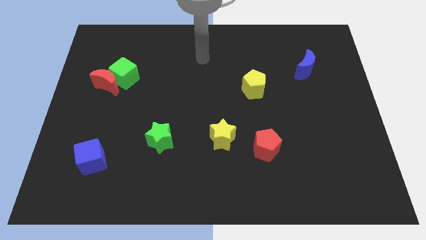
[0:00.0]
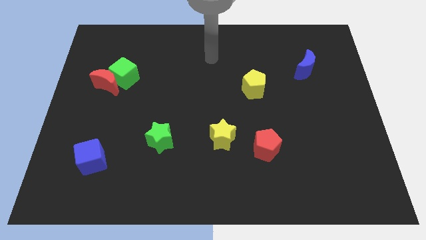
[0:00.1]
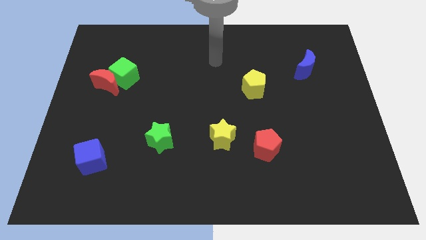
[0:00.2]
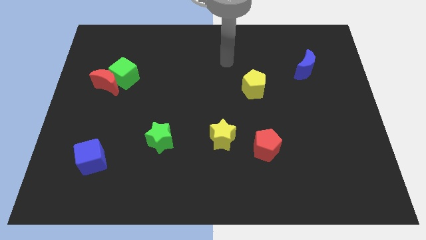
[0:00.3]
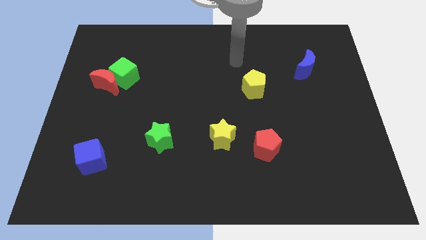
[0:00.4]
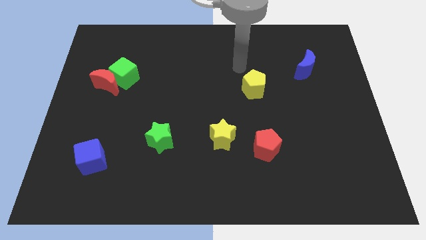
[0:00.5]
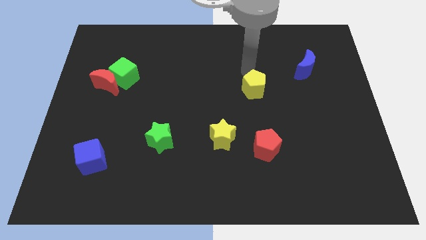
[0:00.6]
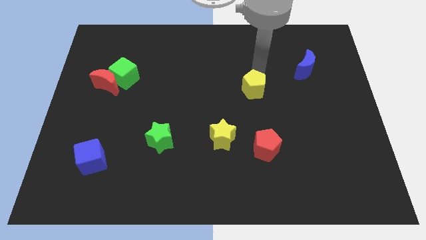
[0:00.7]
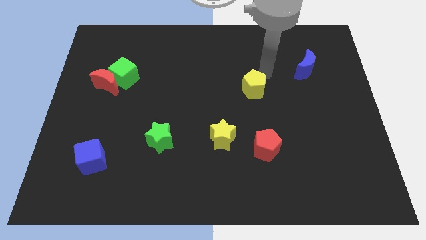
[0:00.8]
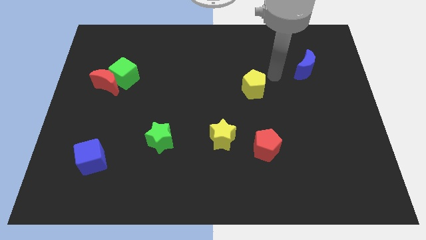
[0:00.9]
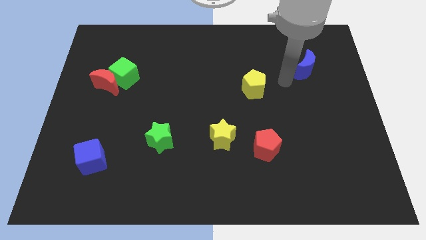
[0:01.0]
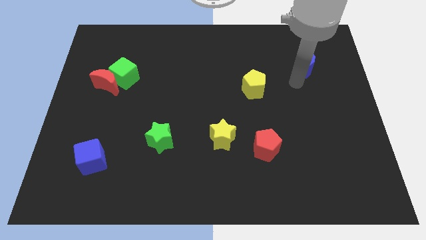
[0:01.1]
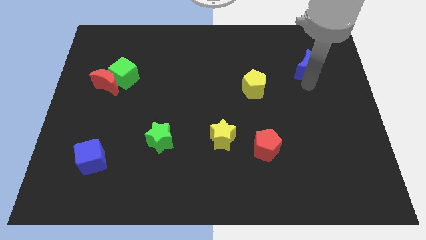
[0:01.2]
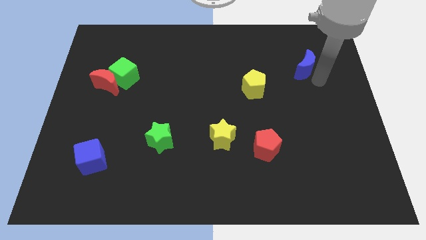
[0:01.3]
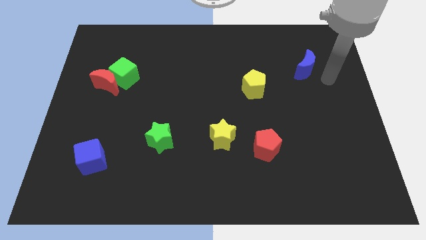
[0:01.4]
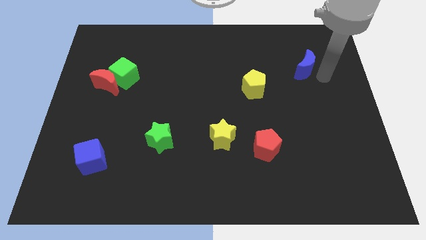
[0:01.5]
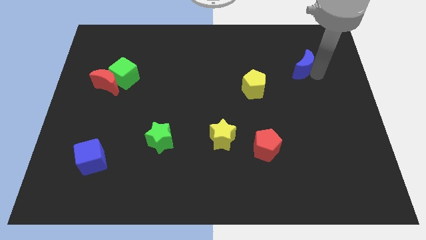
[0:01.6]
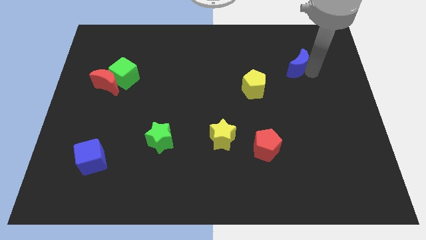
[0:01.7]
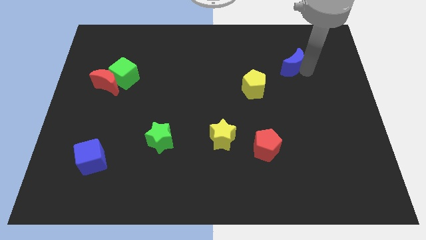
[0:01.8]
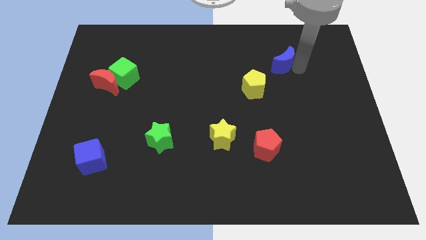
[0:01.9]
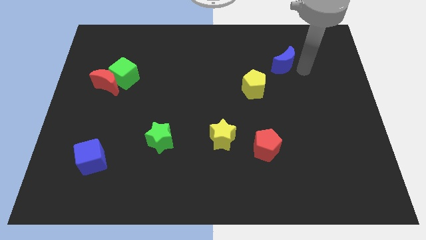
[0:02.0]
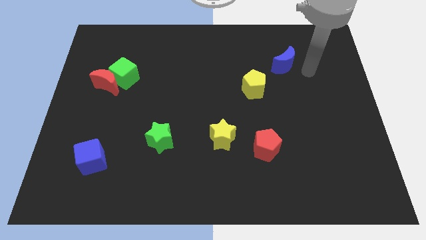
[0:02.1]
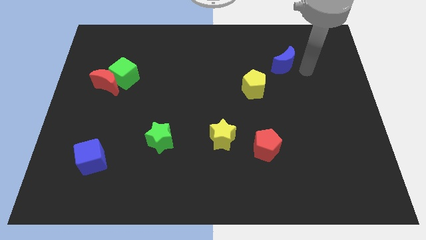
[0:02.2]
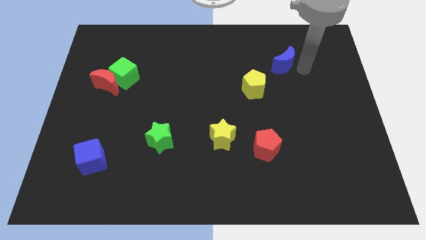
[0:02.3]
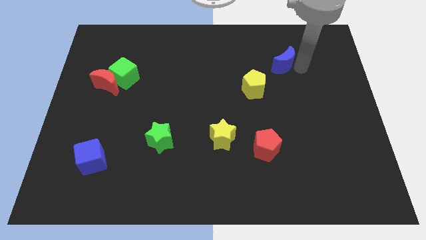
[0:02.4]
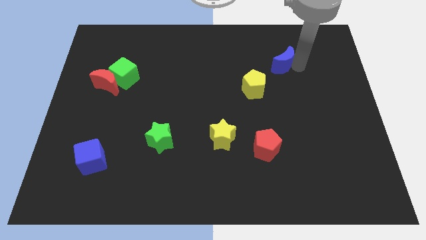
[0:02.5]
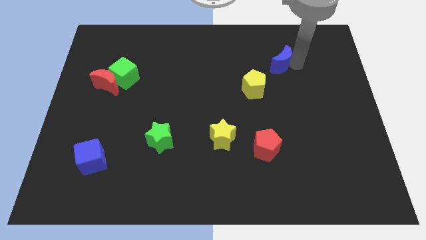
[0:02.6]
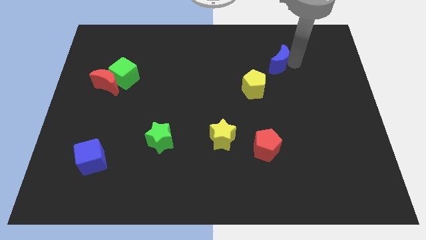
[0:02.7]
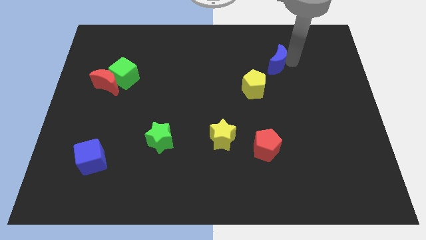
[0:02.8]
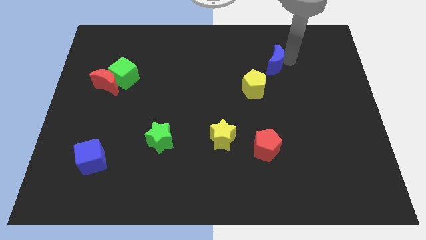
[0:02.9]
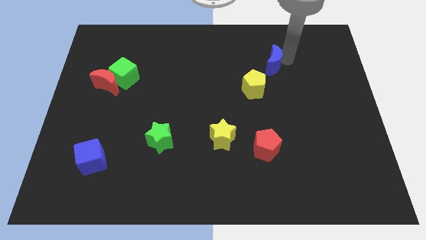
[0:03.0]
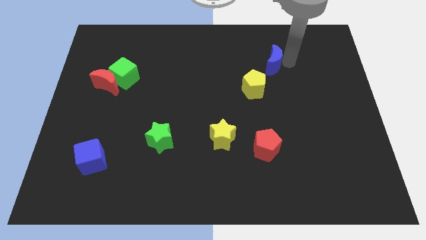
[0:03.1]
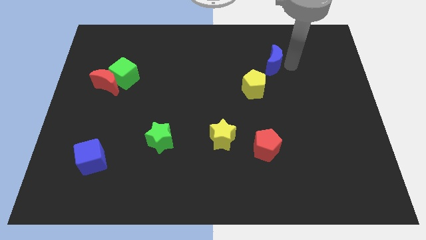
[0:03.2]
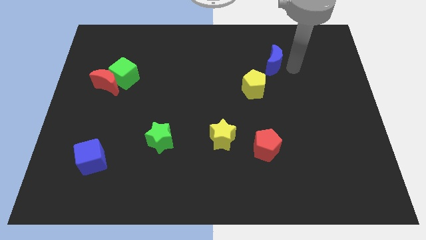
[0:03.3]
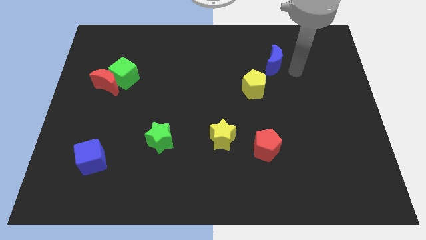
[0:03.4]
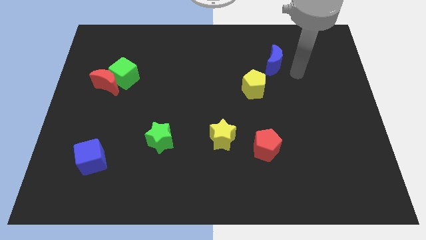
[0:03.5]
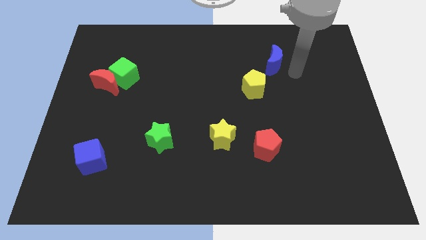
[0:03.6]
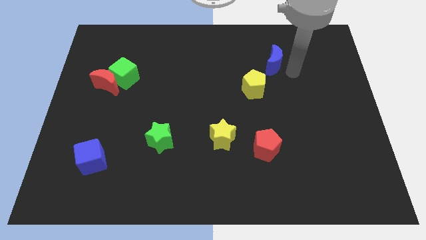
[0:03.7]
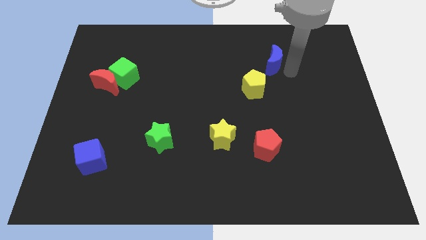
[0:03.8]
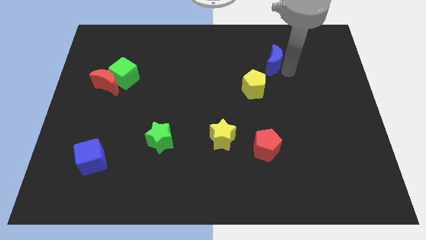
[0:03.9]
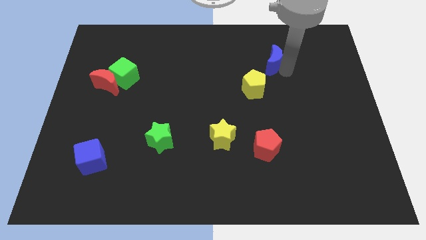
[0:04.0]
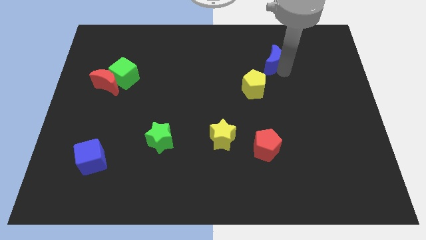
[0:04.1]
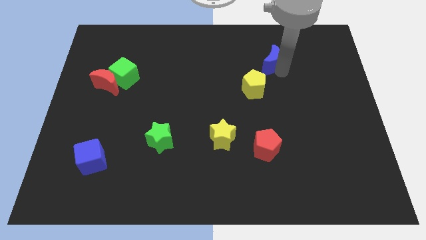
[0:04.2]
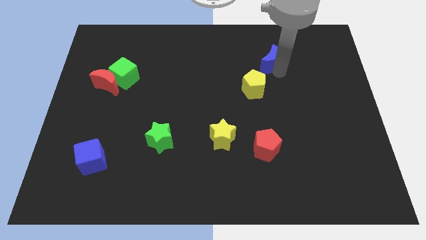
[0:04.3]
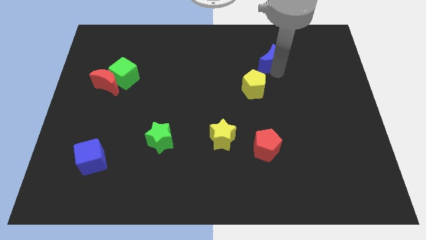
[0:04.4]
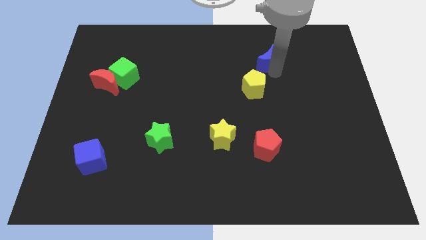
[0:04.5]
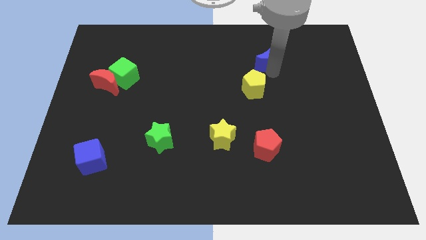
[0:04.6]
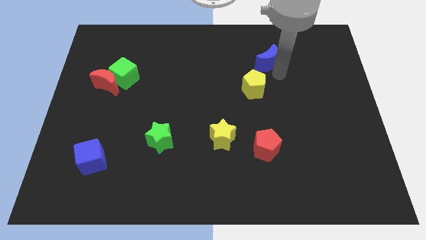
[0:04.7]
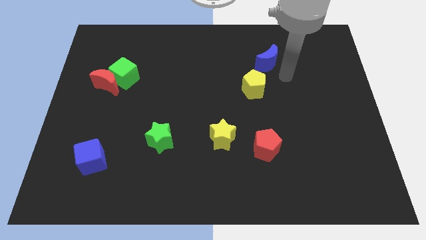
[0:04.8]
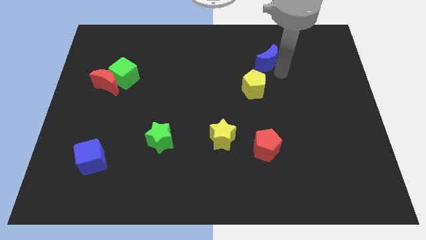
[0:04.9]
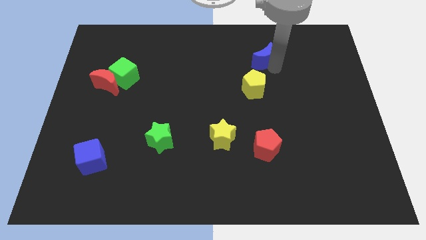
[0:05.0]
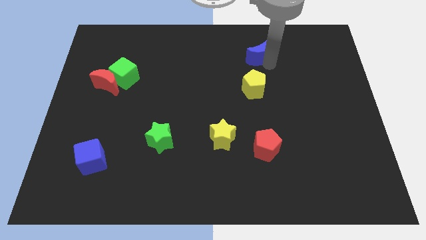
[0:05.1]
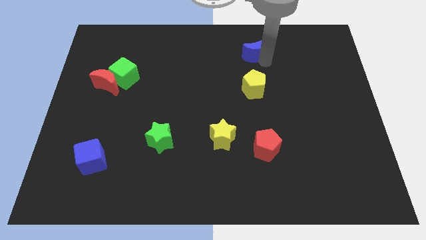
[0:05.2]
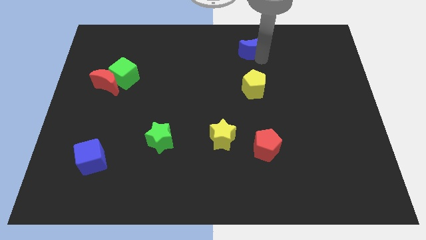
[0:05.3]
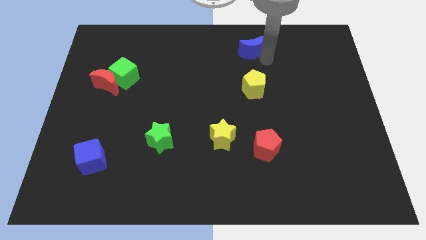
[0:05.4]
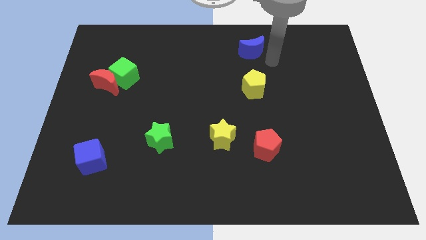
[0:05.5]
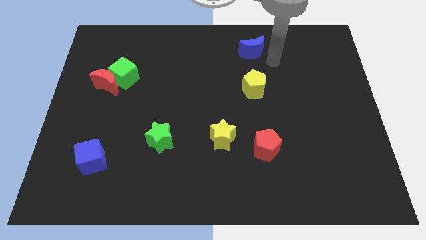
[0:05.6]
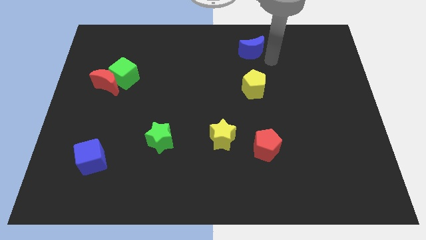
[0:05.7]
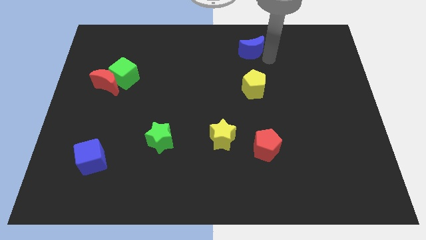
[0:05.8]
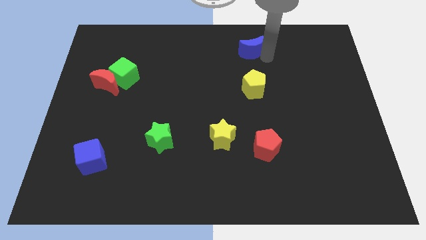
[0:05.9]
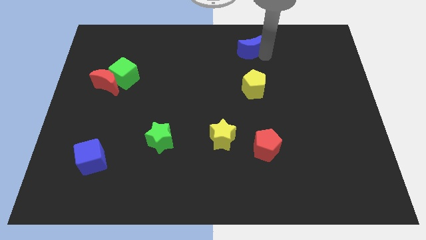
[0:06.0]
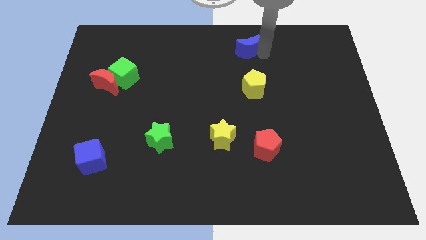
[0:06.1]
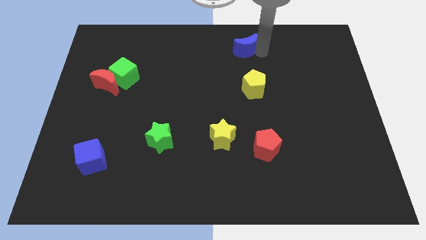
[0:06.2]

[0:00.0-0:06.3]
push the blue moon to the top side
